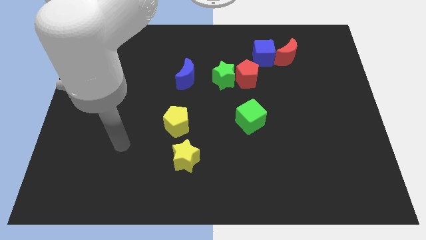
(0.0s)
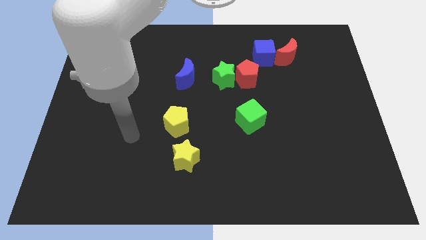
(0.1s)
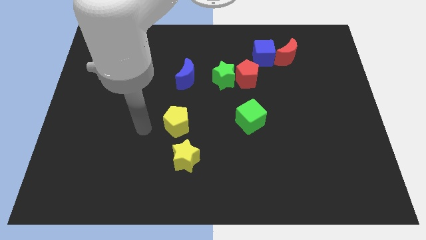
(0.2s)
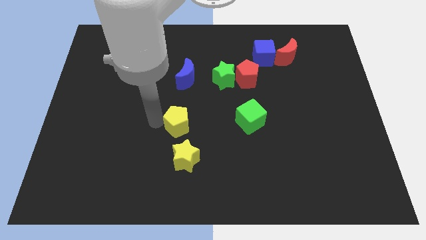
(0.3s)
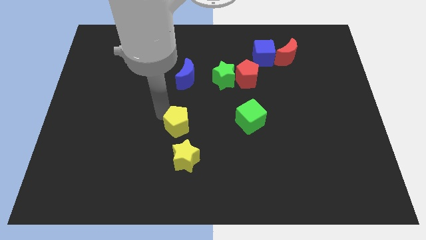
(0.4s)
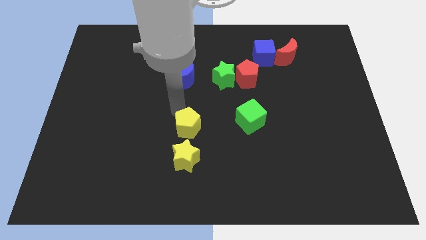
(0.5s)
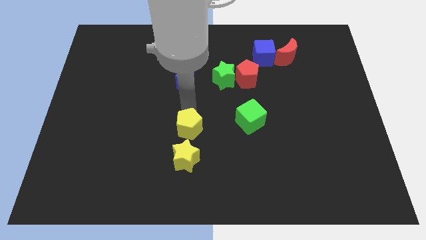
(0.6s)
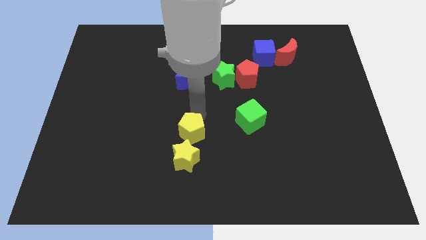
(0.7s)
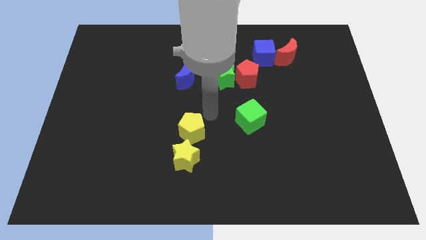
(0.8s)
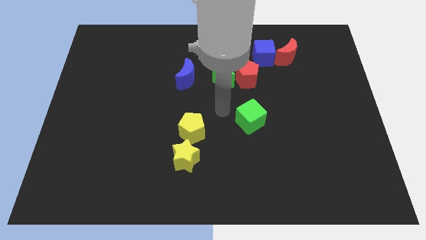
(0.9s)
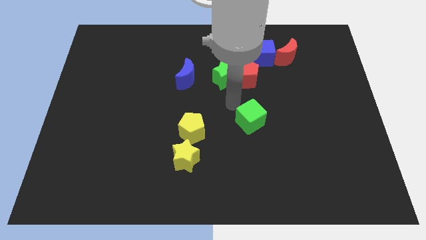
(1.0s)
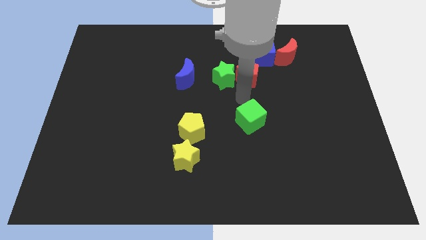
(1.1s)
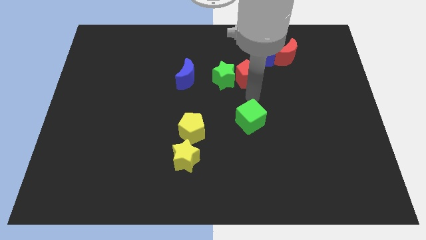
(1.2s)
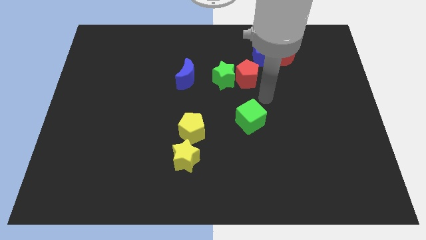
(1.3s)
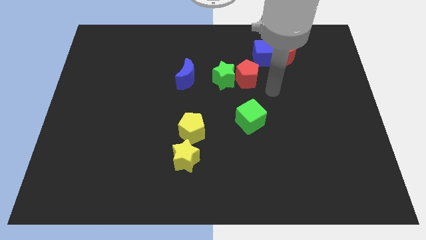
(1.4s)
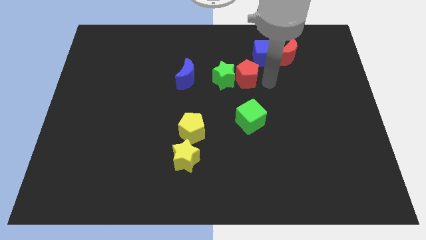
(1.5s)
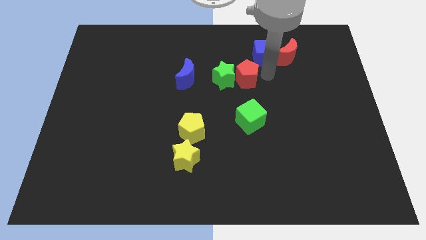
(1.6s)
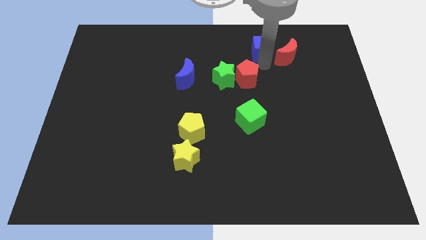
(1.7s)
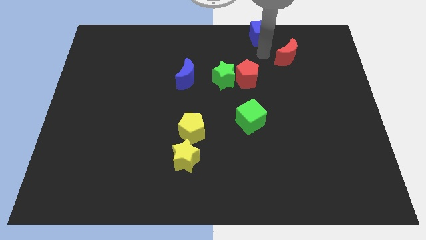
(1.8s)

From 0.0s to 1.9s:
pull the red moon apart from the blue cube

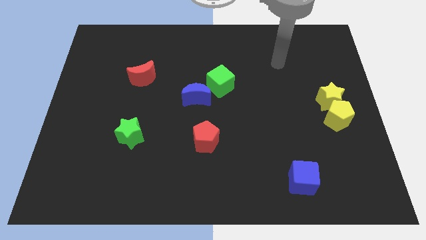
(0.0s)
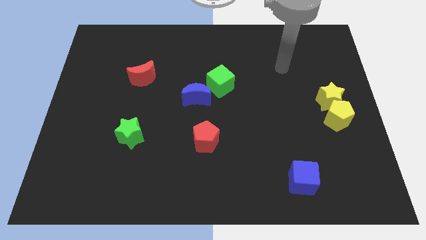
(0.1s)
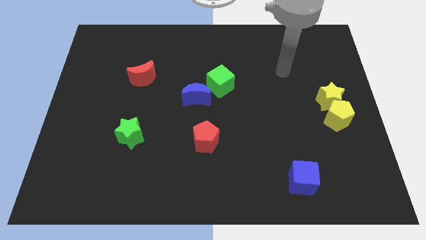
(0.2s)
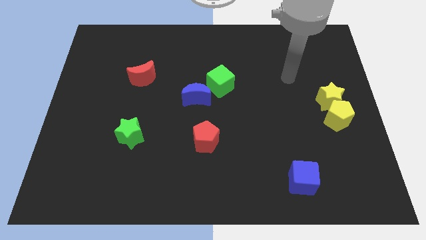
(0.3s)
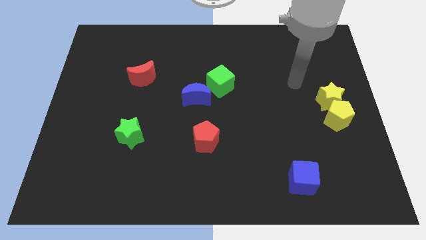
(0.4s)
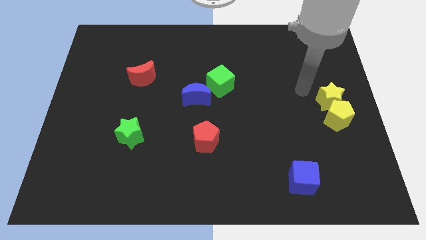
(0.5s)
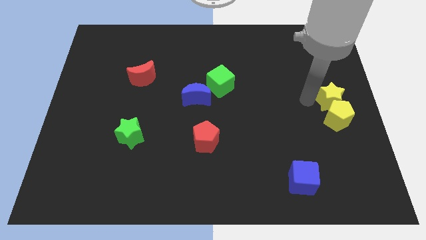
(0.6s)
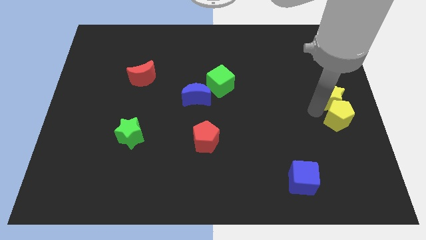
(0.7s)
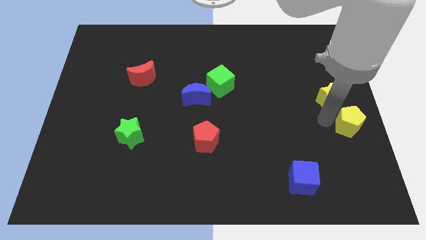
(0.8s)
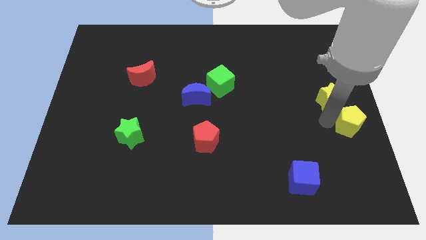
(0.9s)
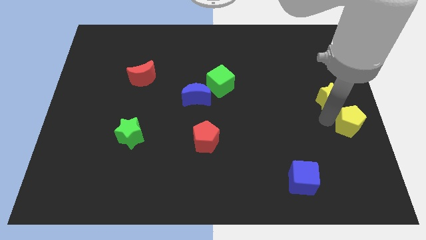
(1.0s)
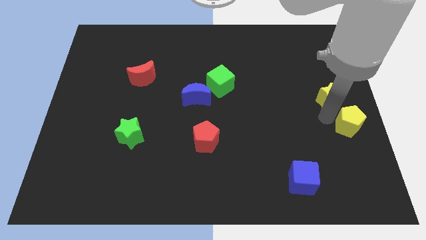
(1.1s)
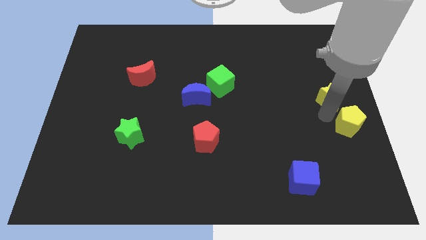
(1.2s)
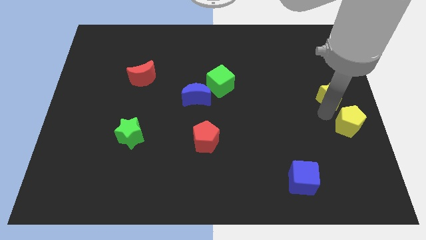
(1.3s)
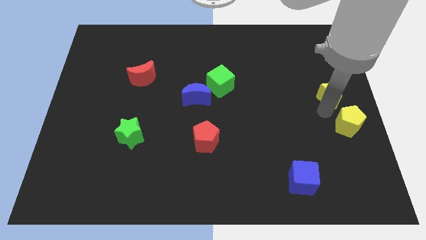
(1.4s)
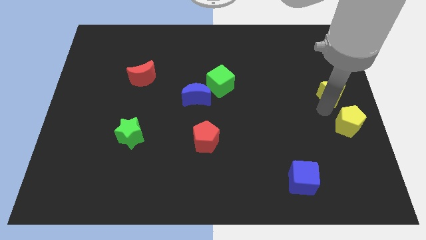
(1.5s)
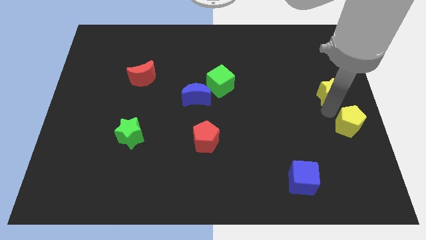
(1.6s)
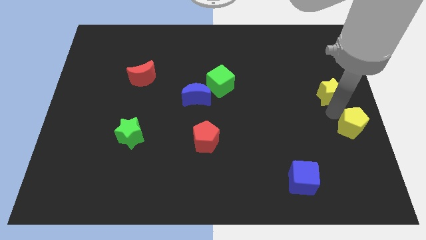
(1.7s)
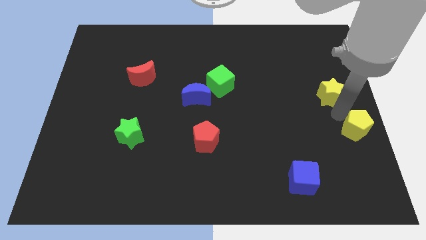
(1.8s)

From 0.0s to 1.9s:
move the yellow star away from the yellow pentagon

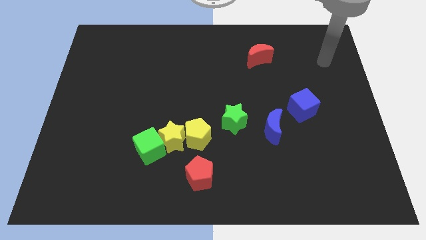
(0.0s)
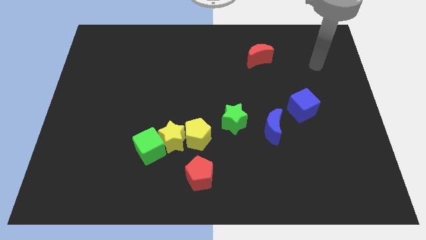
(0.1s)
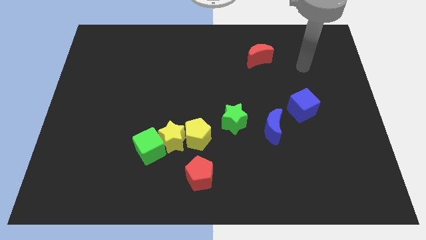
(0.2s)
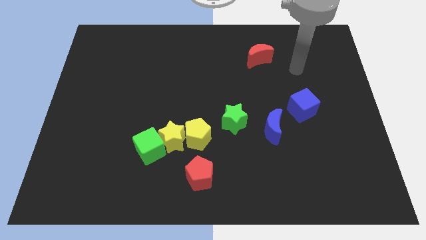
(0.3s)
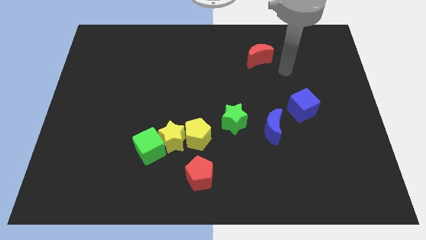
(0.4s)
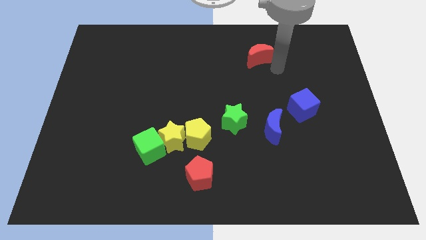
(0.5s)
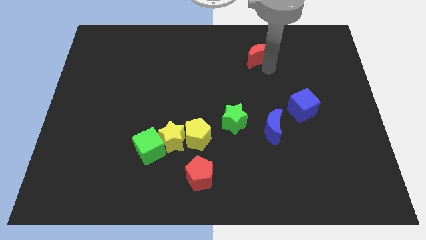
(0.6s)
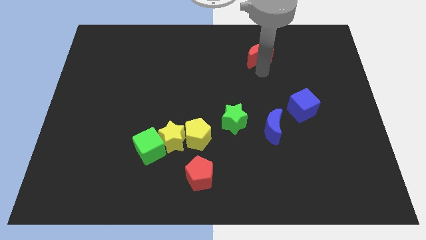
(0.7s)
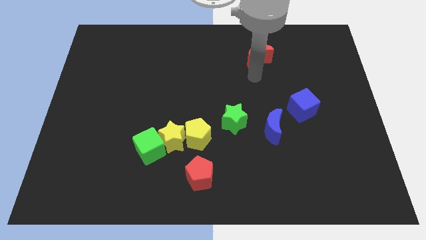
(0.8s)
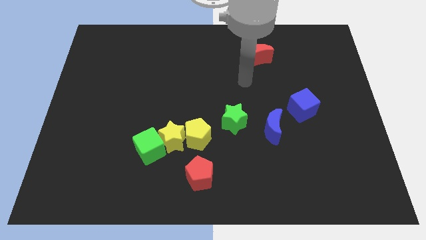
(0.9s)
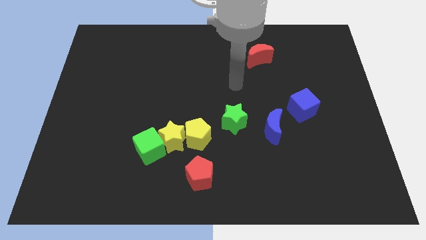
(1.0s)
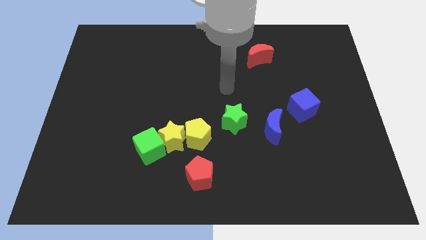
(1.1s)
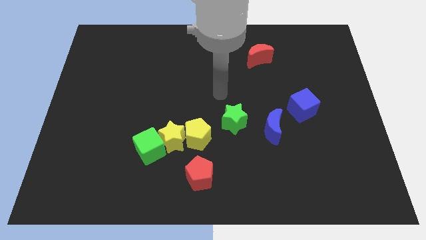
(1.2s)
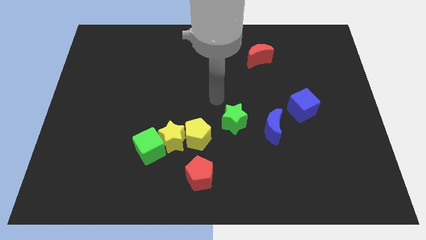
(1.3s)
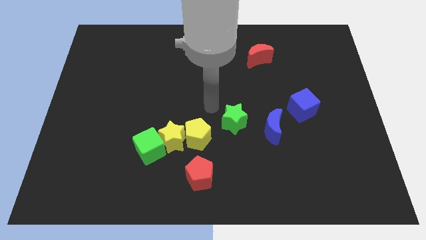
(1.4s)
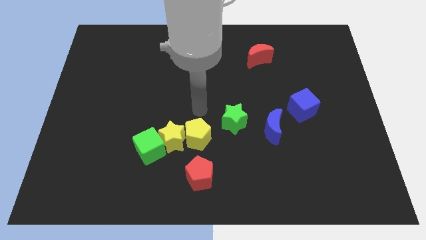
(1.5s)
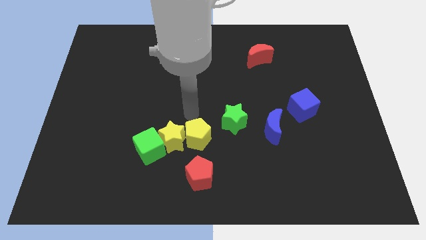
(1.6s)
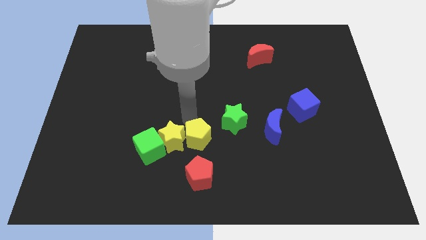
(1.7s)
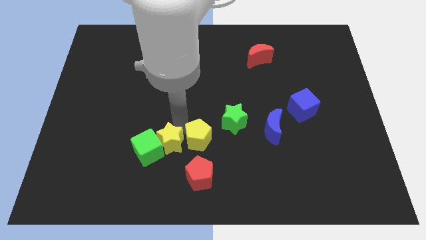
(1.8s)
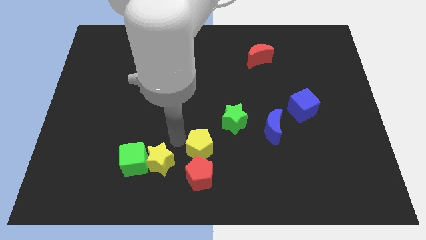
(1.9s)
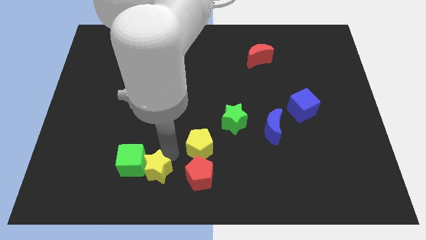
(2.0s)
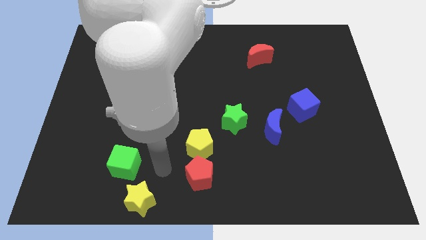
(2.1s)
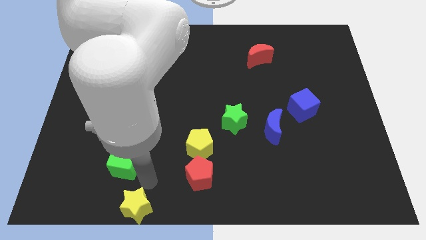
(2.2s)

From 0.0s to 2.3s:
separate the green cube from the yellow star

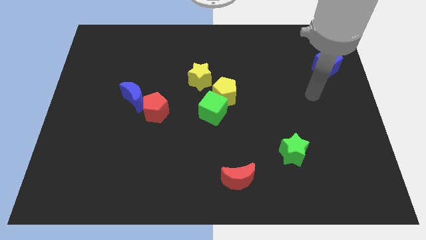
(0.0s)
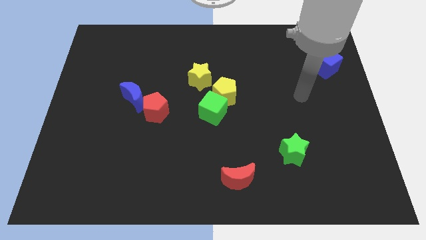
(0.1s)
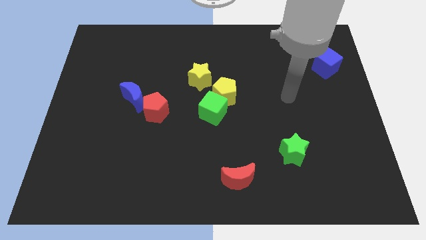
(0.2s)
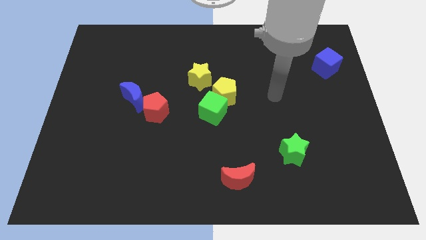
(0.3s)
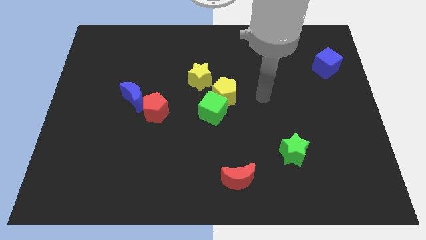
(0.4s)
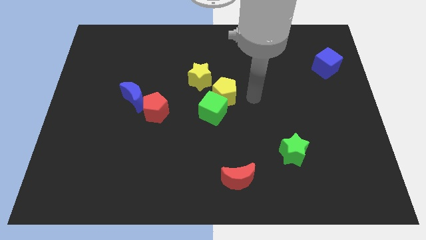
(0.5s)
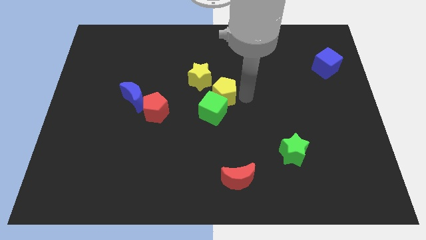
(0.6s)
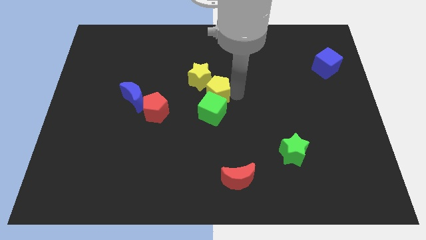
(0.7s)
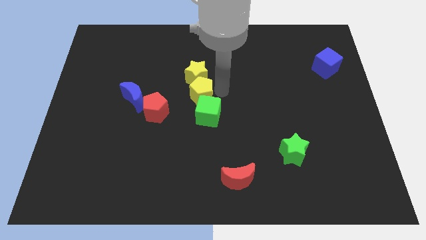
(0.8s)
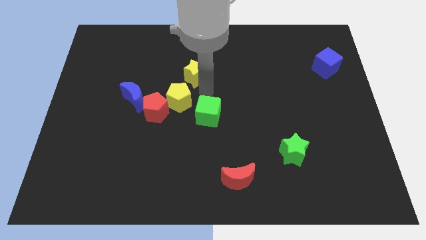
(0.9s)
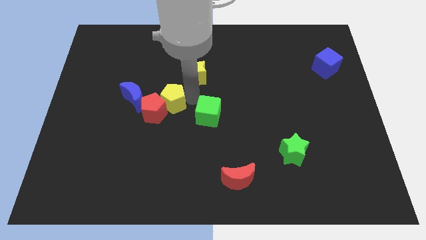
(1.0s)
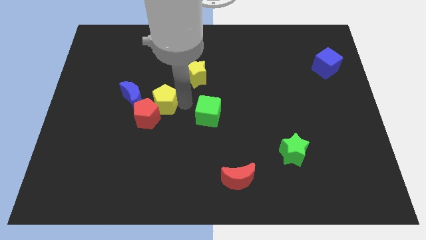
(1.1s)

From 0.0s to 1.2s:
move the green cube away from the yellow pentagon

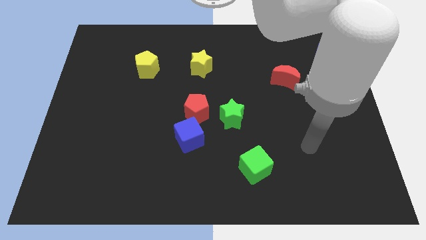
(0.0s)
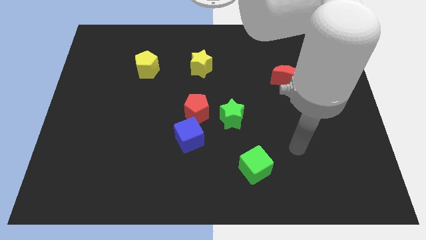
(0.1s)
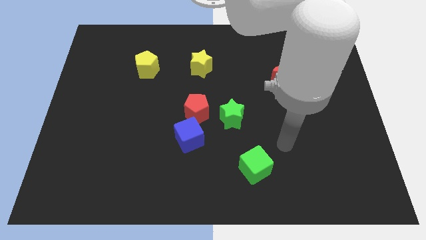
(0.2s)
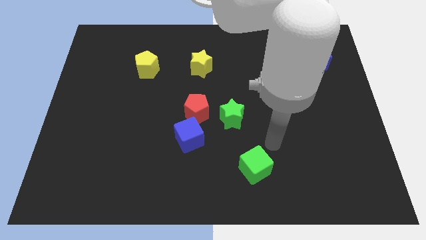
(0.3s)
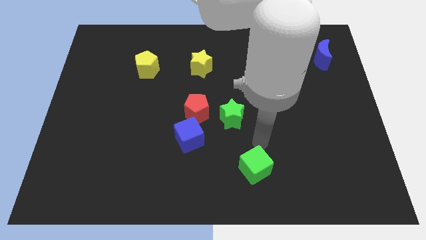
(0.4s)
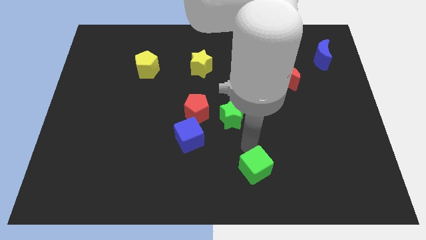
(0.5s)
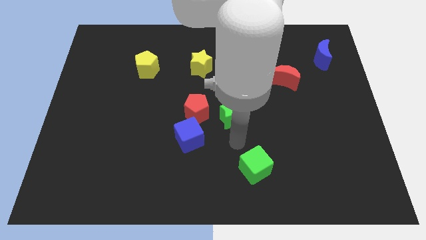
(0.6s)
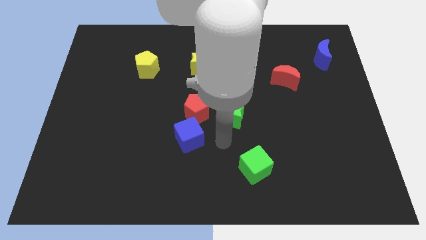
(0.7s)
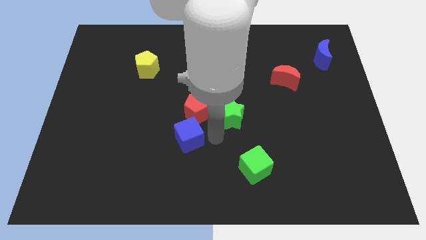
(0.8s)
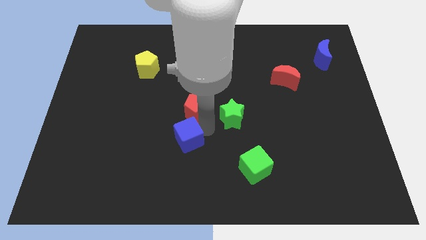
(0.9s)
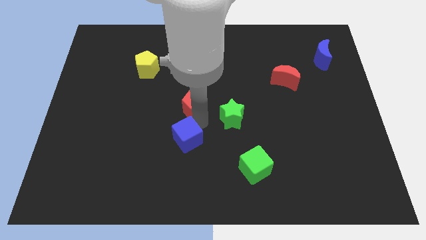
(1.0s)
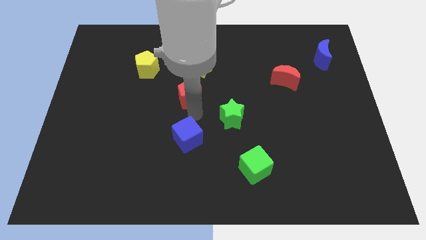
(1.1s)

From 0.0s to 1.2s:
move the blue cube away from the red pentagon

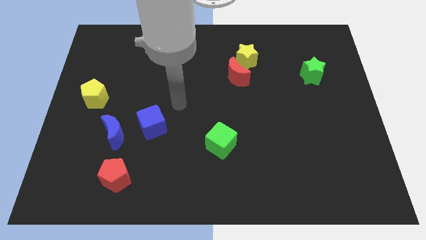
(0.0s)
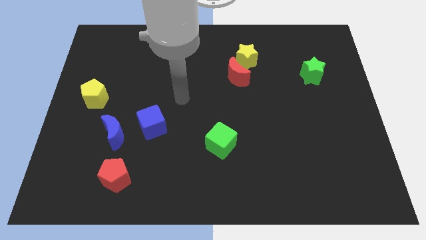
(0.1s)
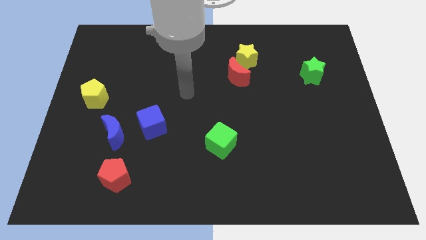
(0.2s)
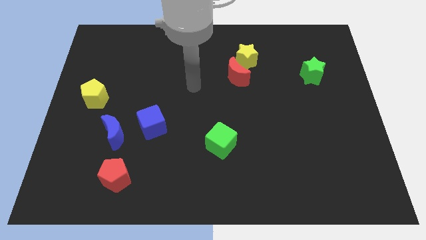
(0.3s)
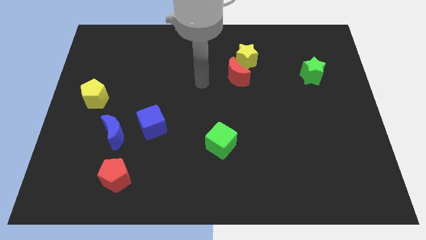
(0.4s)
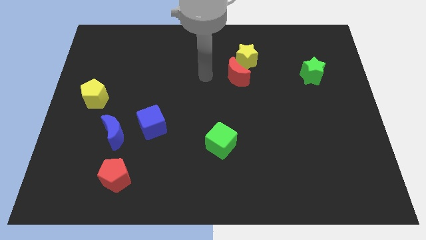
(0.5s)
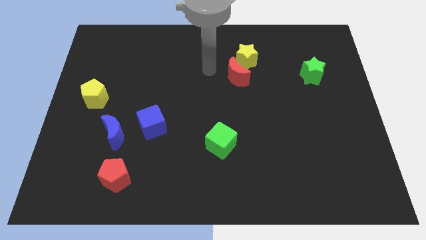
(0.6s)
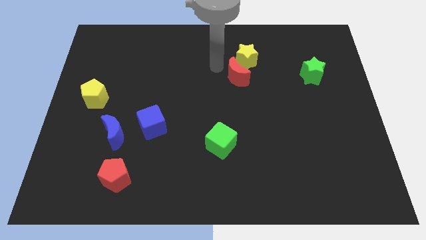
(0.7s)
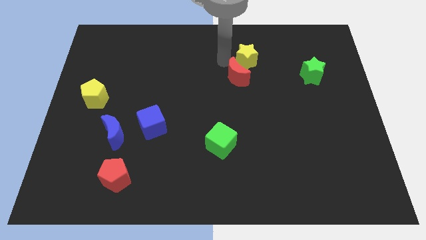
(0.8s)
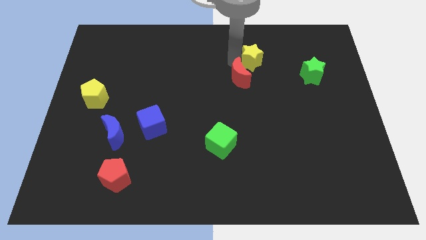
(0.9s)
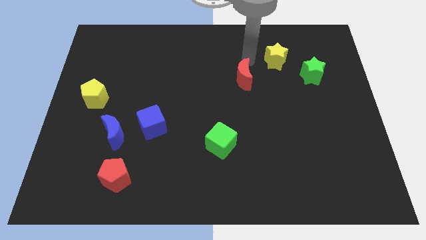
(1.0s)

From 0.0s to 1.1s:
move the red moon away from the yellow star
